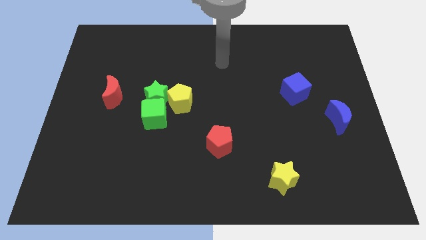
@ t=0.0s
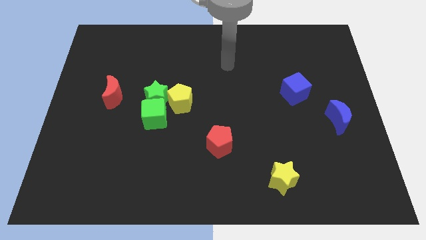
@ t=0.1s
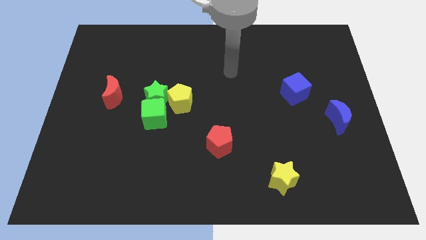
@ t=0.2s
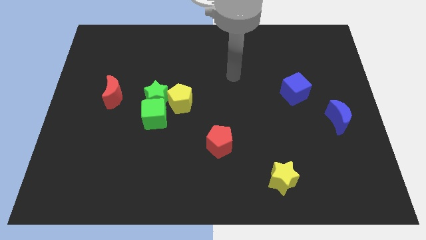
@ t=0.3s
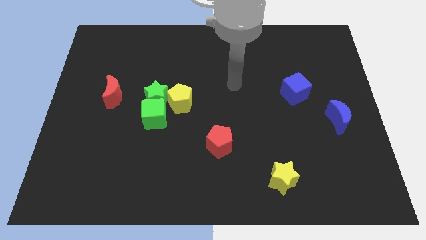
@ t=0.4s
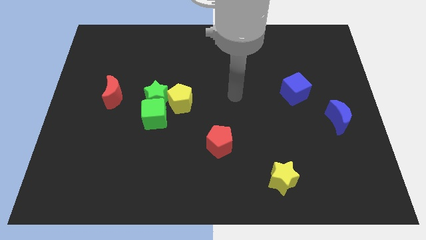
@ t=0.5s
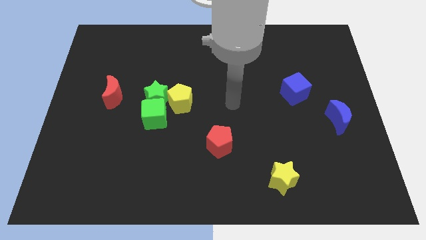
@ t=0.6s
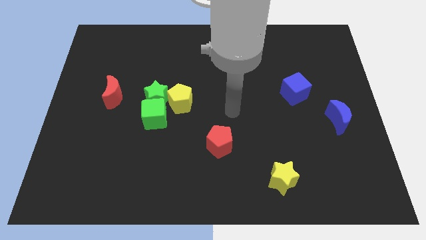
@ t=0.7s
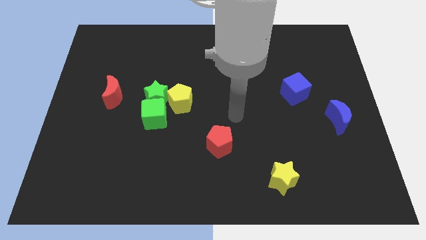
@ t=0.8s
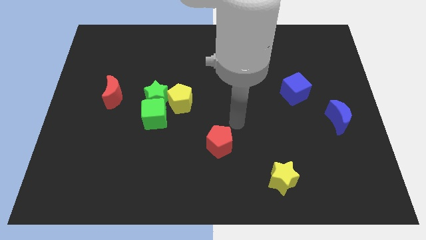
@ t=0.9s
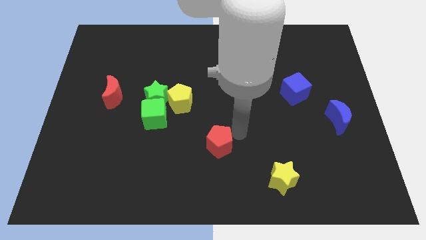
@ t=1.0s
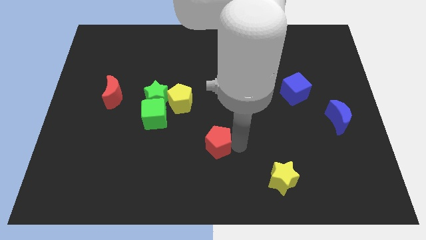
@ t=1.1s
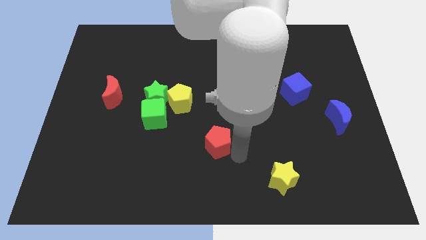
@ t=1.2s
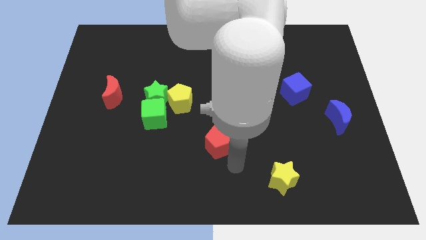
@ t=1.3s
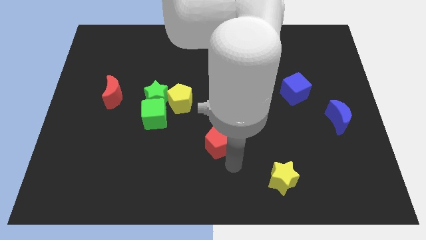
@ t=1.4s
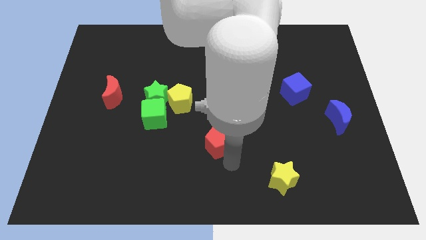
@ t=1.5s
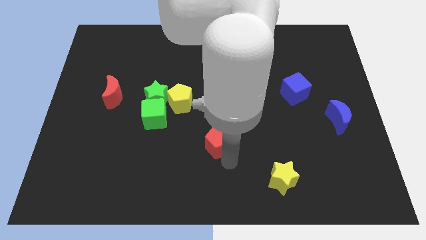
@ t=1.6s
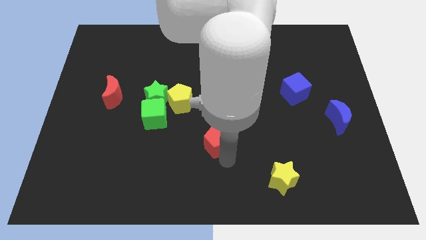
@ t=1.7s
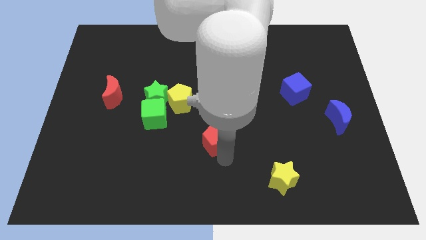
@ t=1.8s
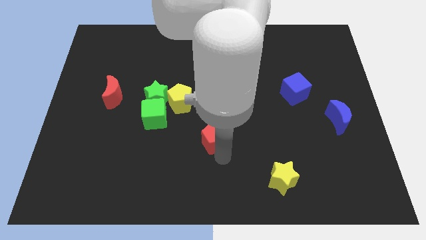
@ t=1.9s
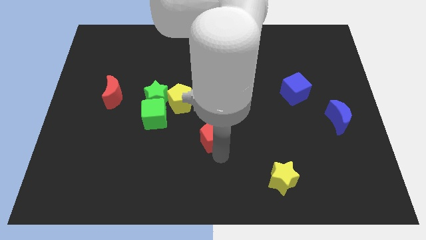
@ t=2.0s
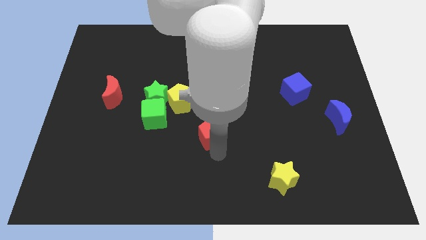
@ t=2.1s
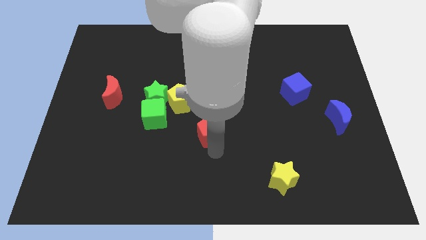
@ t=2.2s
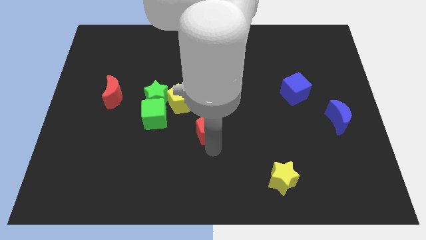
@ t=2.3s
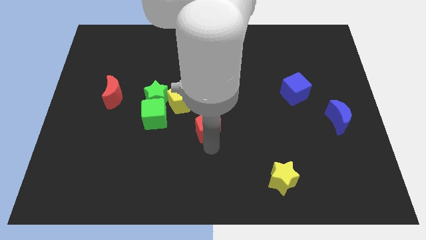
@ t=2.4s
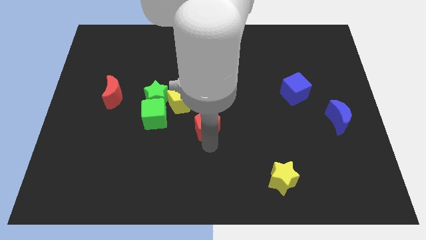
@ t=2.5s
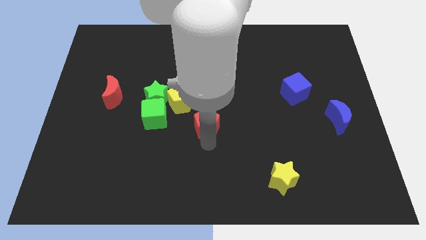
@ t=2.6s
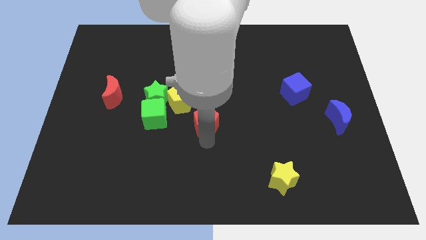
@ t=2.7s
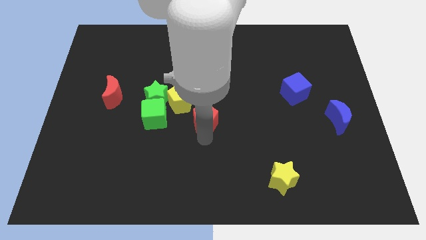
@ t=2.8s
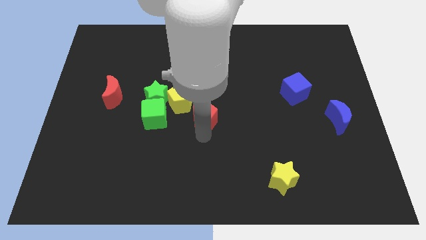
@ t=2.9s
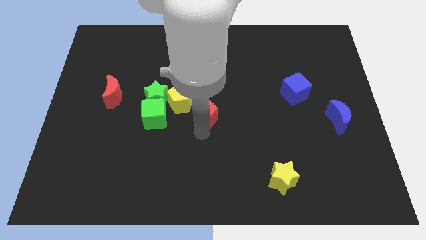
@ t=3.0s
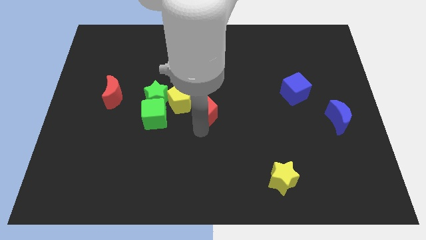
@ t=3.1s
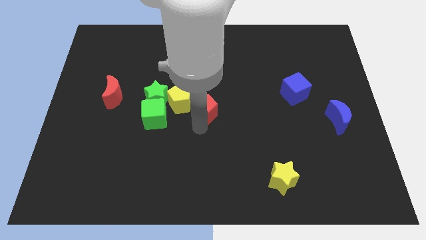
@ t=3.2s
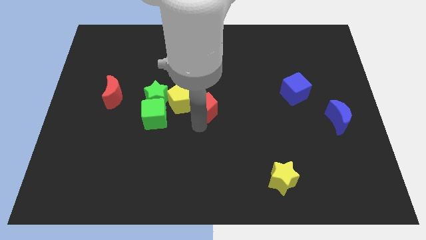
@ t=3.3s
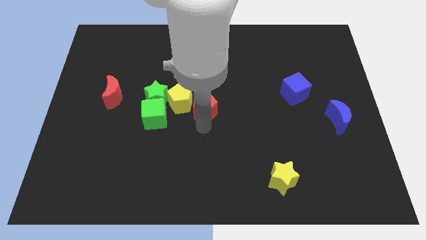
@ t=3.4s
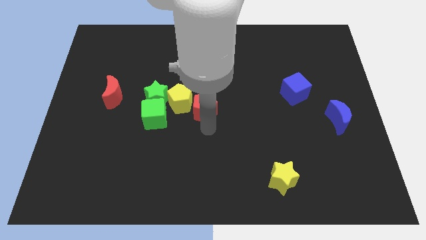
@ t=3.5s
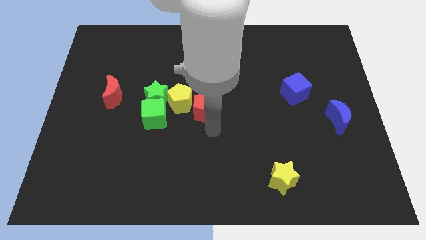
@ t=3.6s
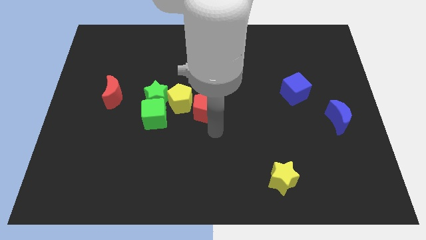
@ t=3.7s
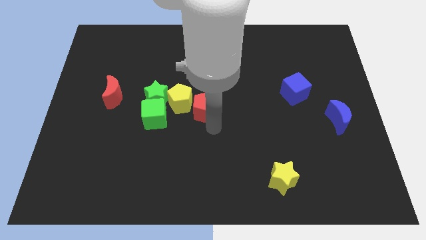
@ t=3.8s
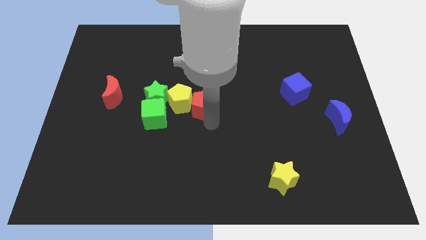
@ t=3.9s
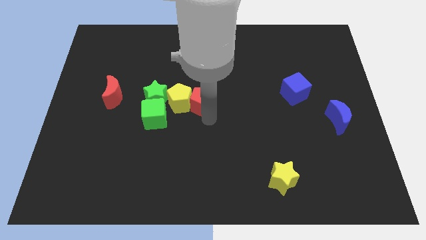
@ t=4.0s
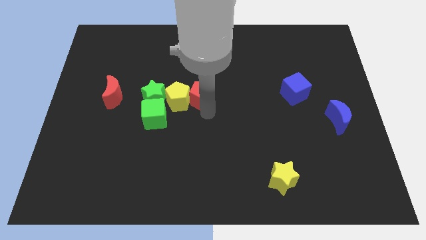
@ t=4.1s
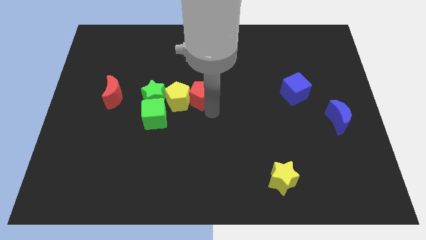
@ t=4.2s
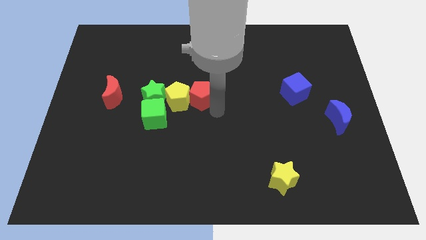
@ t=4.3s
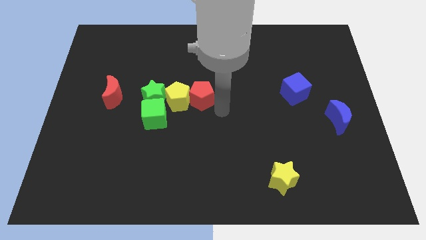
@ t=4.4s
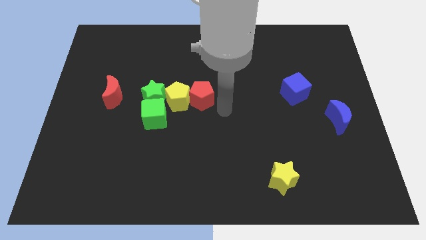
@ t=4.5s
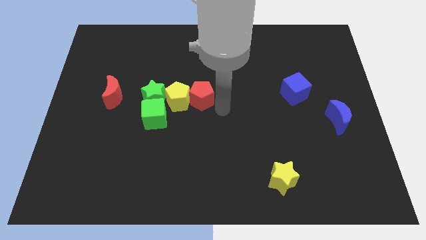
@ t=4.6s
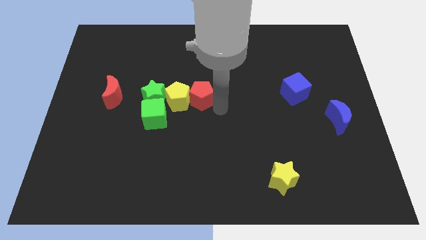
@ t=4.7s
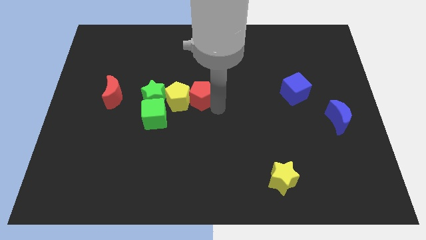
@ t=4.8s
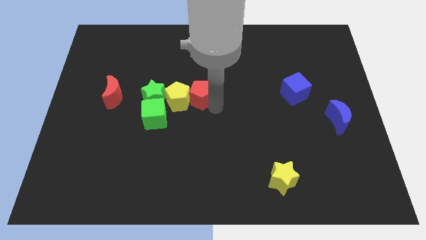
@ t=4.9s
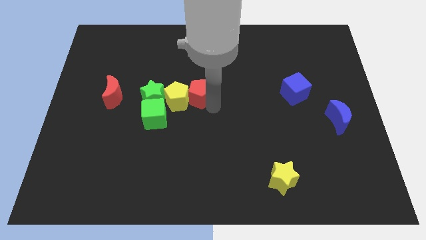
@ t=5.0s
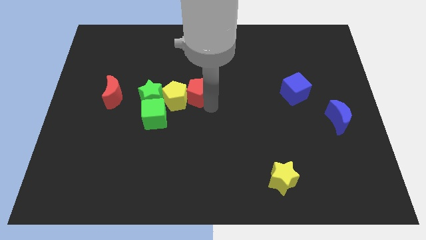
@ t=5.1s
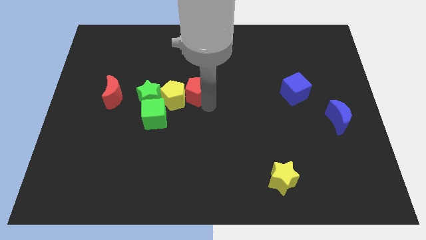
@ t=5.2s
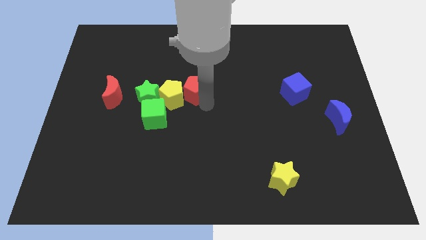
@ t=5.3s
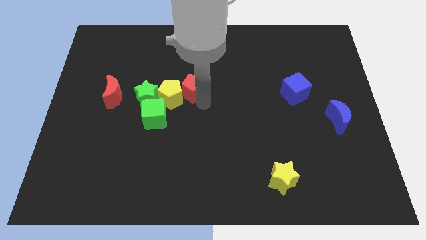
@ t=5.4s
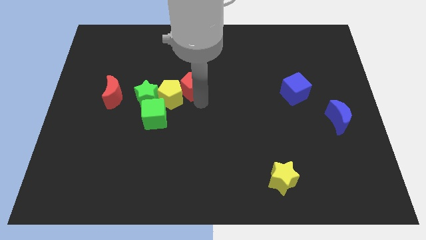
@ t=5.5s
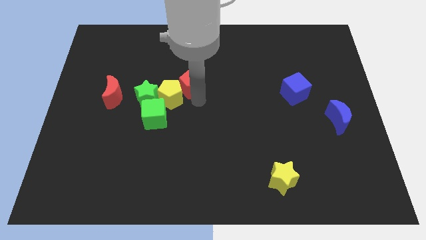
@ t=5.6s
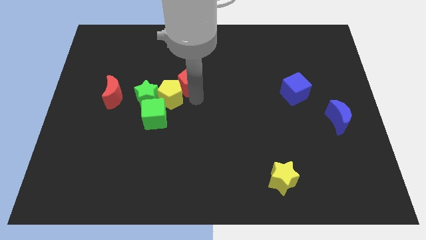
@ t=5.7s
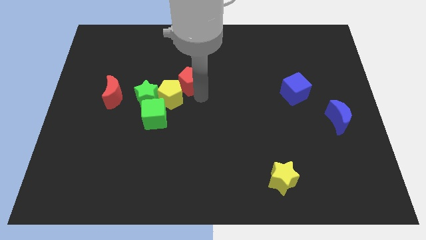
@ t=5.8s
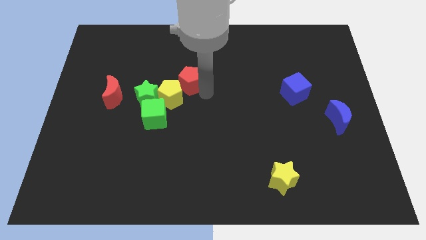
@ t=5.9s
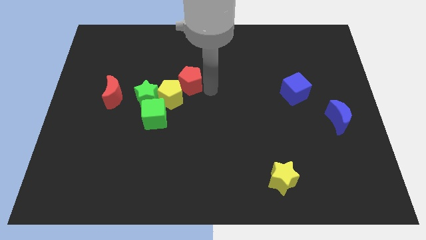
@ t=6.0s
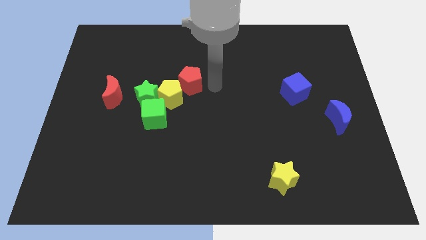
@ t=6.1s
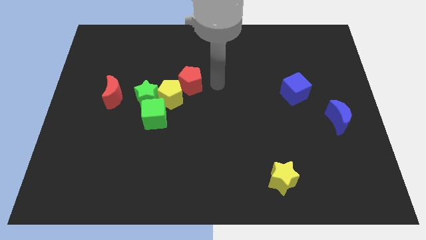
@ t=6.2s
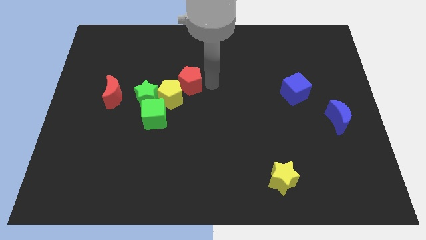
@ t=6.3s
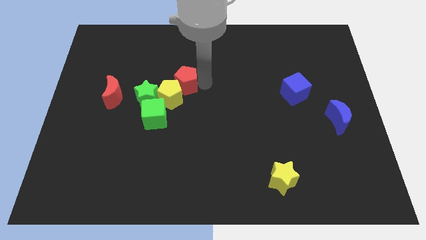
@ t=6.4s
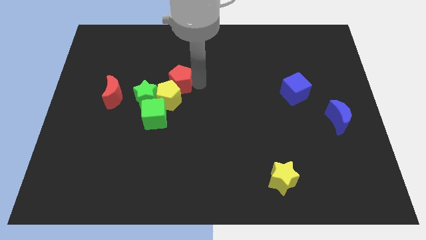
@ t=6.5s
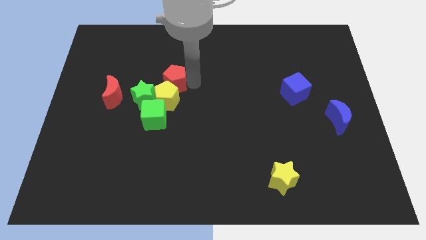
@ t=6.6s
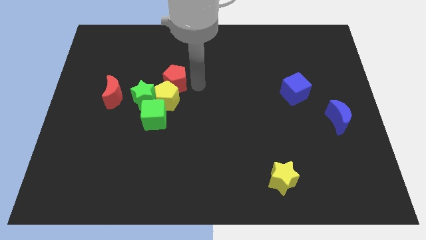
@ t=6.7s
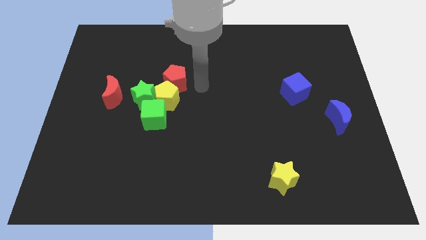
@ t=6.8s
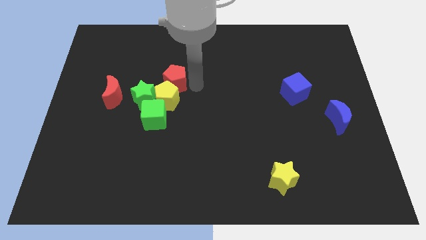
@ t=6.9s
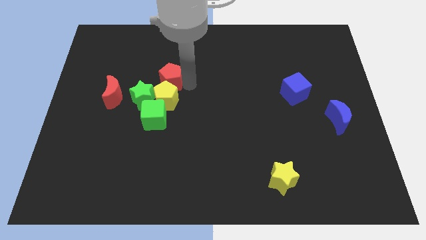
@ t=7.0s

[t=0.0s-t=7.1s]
slide the red pentagon upwards and to the left diagonally

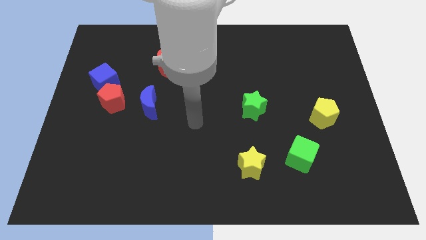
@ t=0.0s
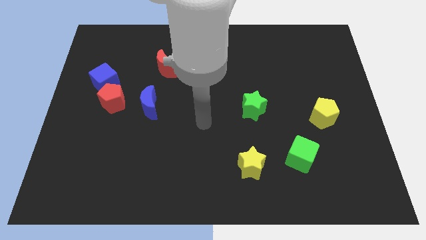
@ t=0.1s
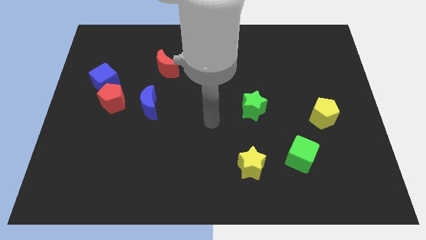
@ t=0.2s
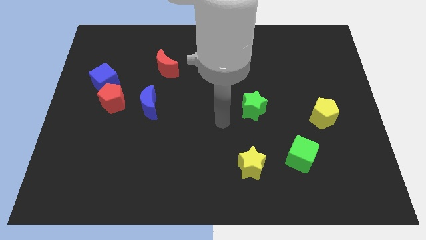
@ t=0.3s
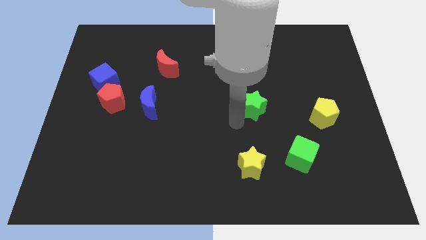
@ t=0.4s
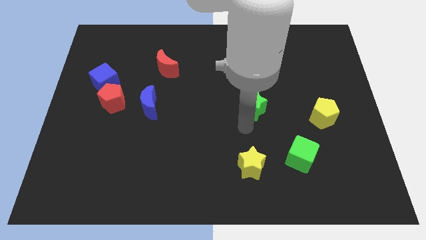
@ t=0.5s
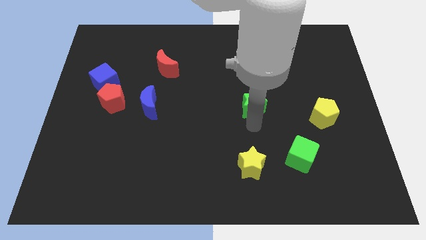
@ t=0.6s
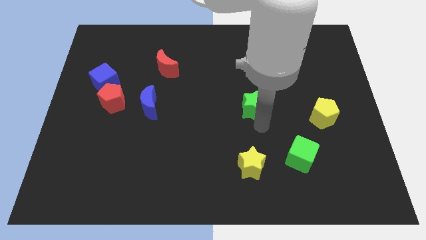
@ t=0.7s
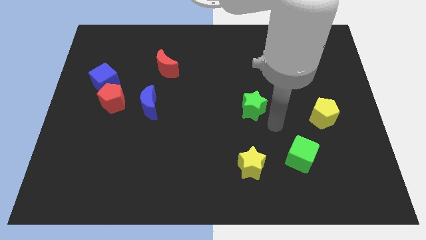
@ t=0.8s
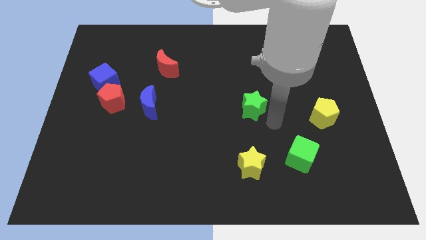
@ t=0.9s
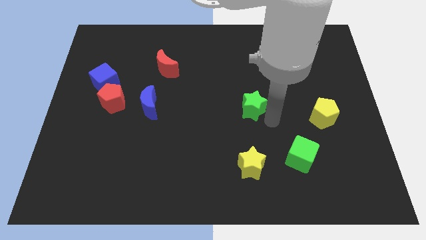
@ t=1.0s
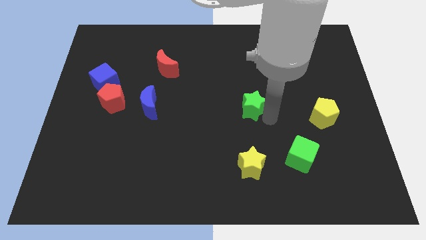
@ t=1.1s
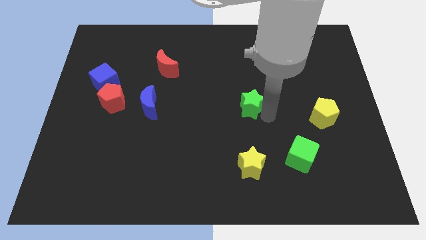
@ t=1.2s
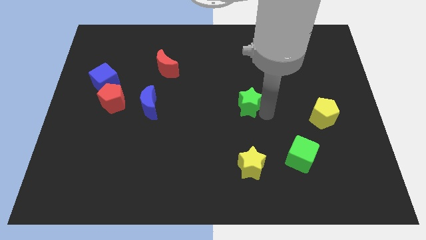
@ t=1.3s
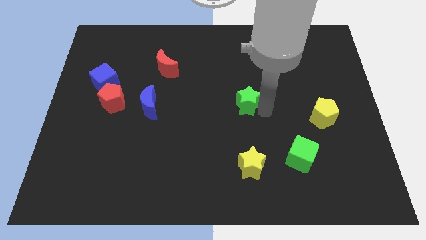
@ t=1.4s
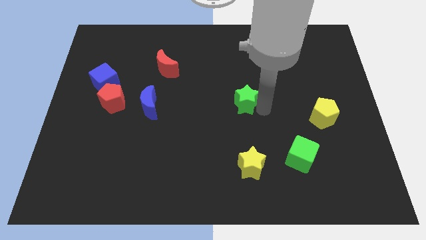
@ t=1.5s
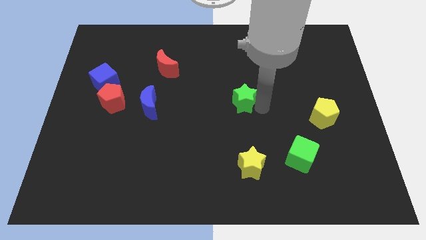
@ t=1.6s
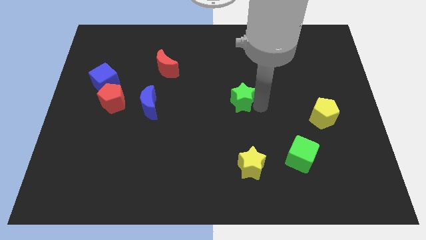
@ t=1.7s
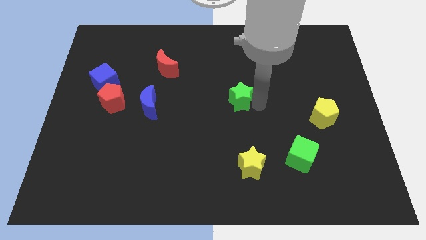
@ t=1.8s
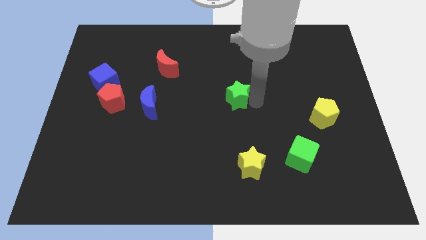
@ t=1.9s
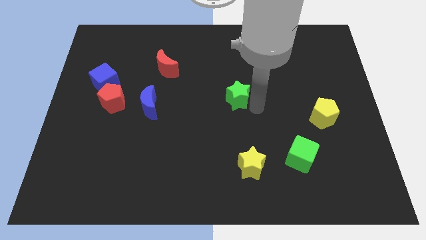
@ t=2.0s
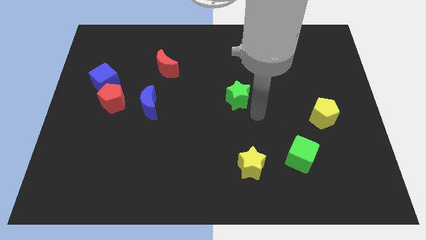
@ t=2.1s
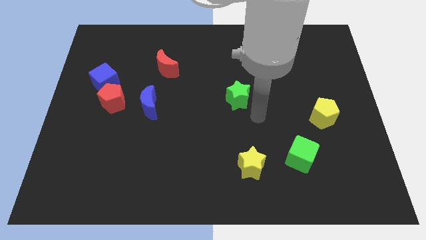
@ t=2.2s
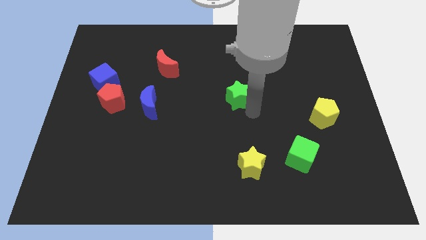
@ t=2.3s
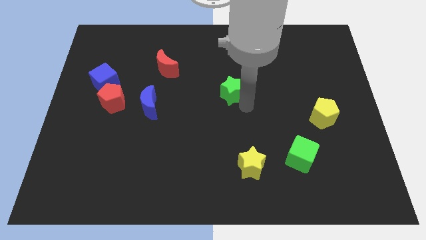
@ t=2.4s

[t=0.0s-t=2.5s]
slightly slide the green star upwards and to the left diagonally
